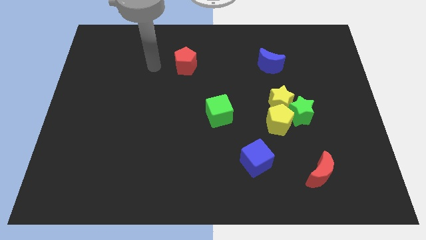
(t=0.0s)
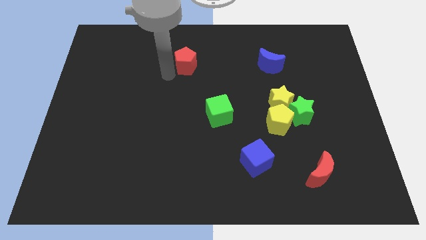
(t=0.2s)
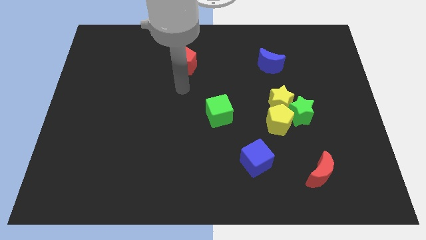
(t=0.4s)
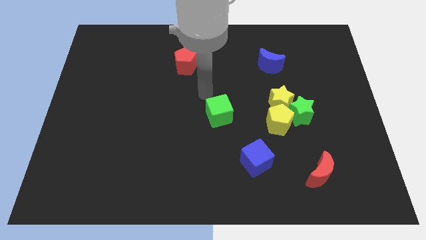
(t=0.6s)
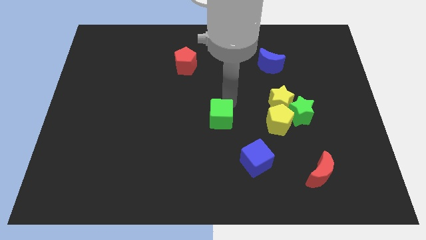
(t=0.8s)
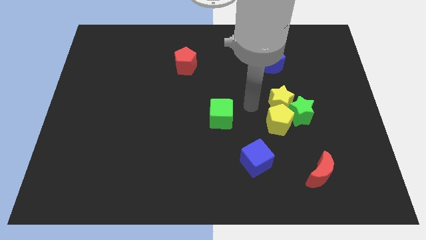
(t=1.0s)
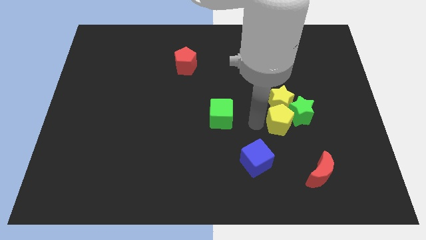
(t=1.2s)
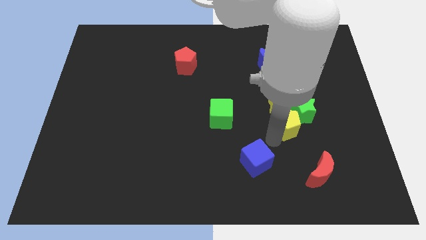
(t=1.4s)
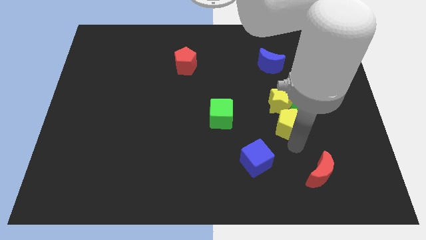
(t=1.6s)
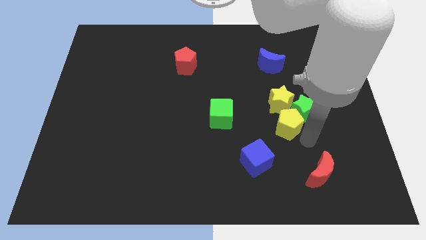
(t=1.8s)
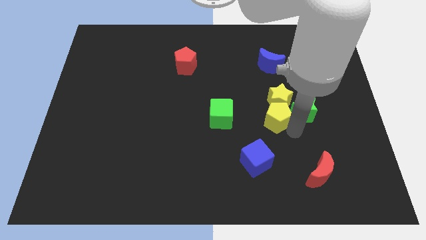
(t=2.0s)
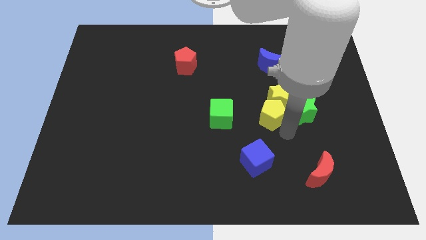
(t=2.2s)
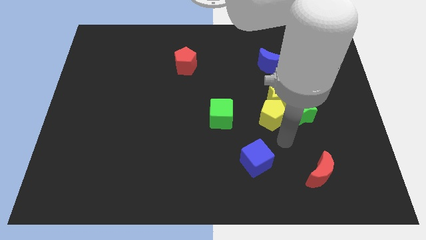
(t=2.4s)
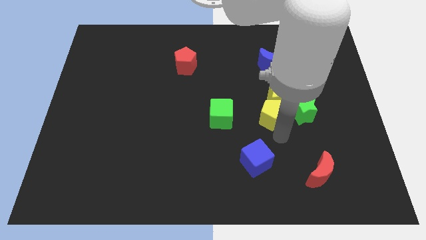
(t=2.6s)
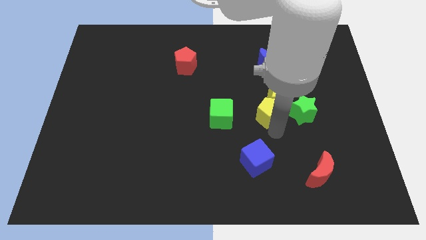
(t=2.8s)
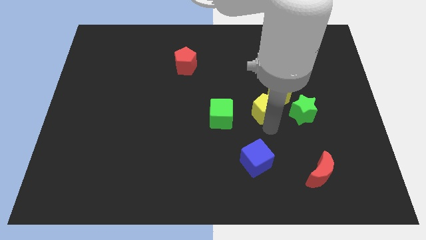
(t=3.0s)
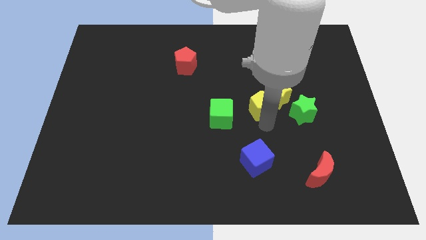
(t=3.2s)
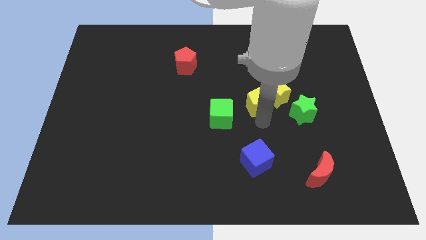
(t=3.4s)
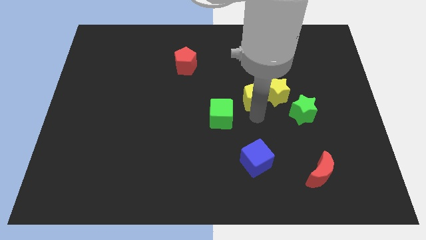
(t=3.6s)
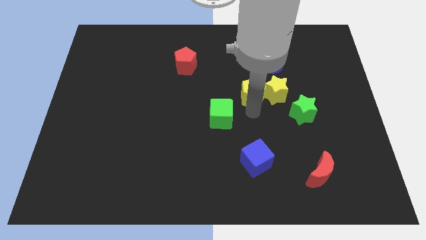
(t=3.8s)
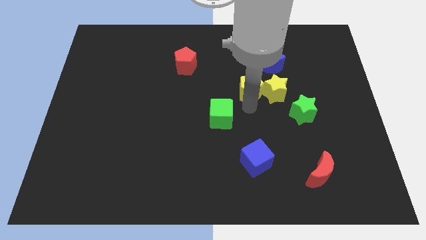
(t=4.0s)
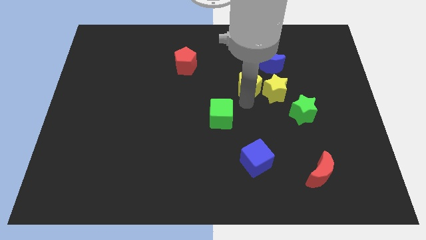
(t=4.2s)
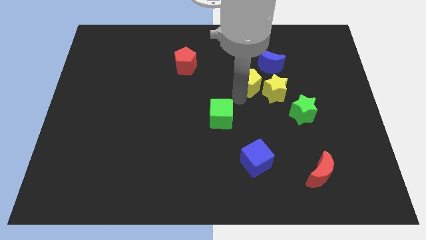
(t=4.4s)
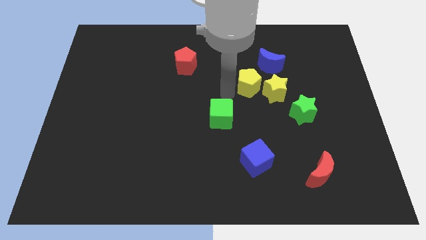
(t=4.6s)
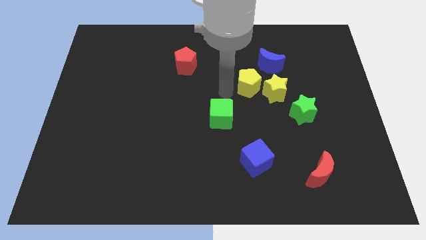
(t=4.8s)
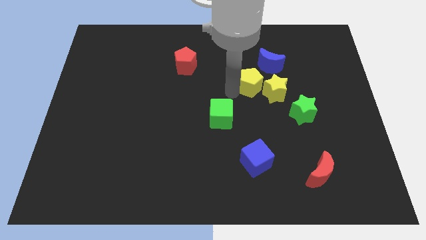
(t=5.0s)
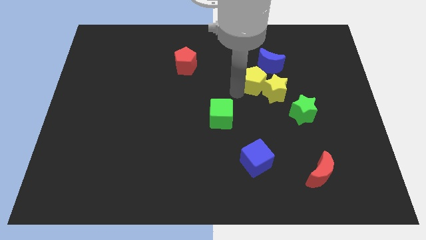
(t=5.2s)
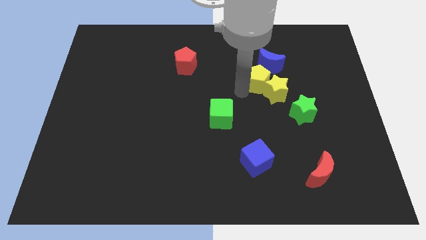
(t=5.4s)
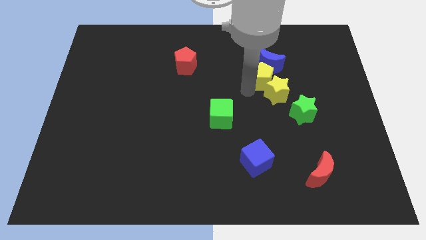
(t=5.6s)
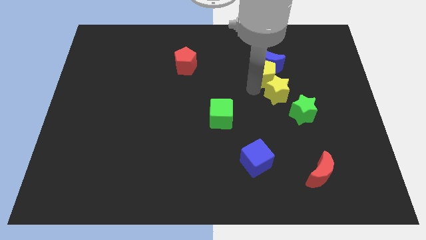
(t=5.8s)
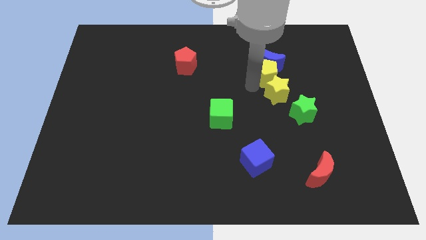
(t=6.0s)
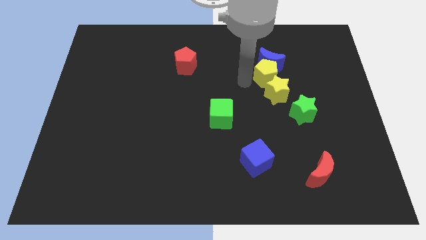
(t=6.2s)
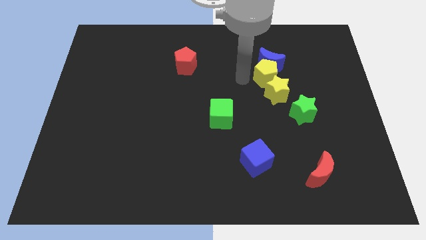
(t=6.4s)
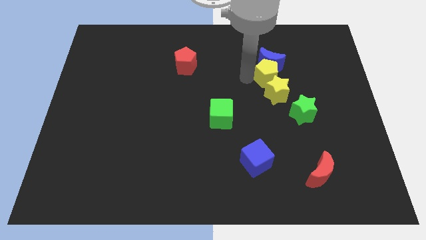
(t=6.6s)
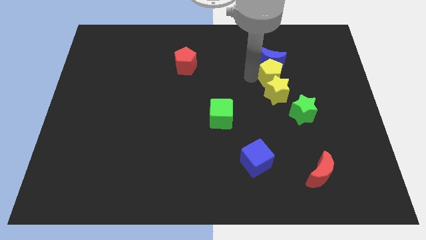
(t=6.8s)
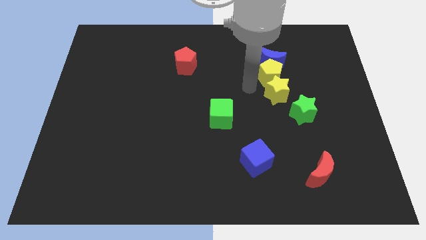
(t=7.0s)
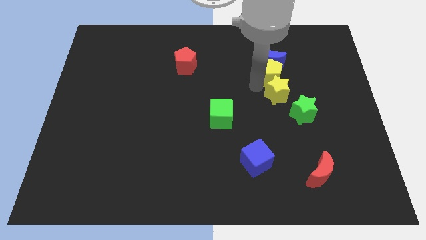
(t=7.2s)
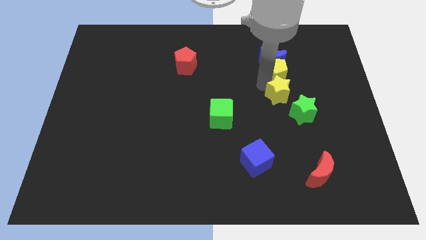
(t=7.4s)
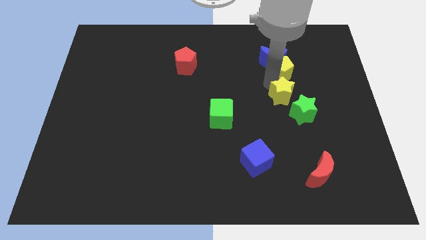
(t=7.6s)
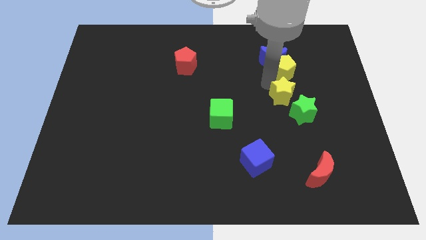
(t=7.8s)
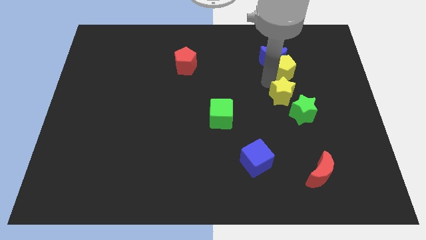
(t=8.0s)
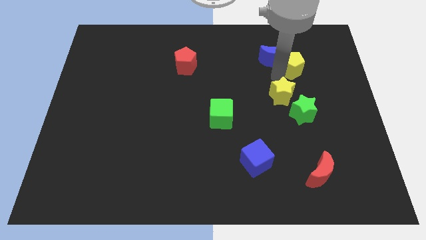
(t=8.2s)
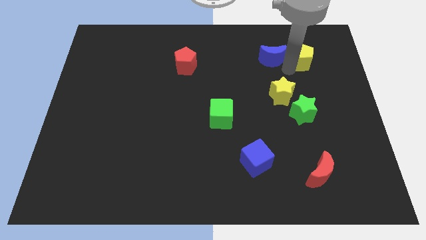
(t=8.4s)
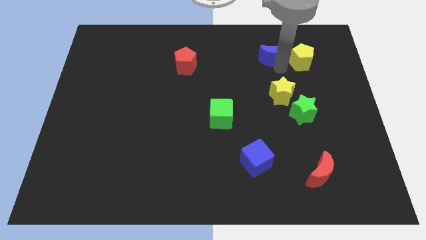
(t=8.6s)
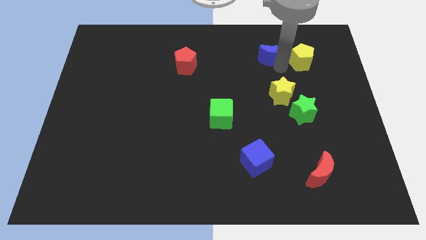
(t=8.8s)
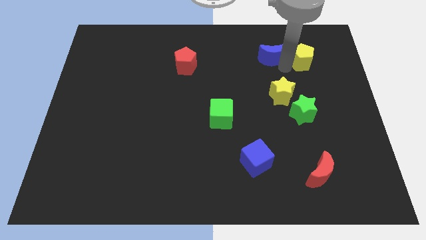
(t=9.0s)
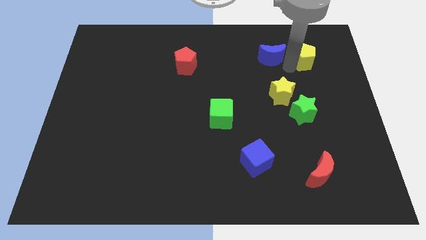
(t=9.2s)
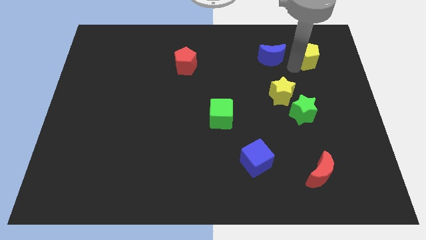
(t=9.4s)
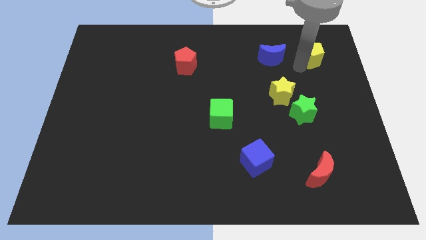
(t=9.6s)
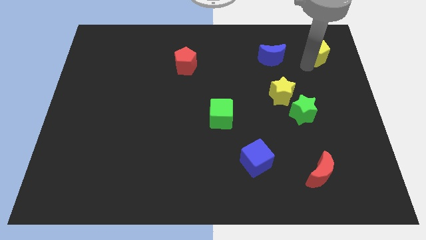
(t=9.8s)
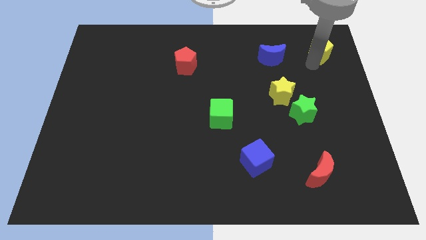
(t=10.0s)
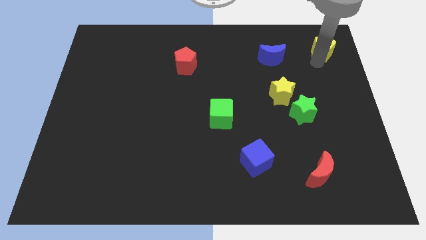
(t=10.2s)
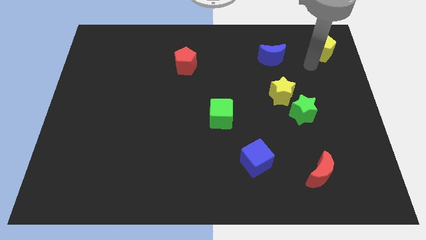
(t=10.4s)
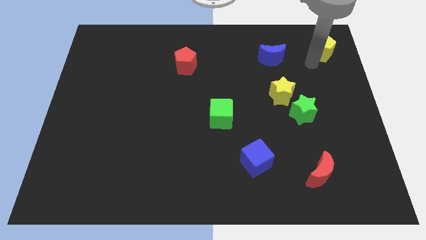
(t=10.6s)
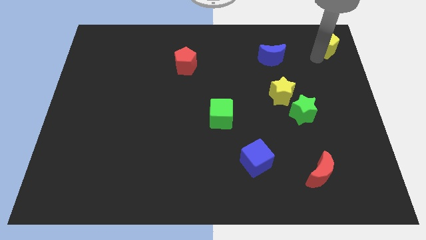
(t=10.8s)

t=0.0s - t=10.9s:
put the yellow pentagon to the top right corner
